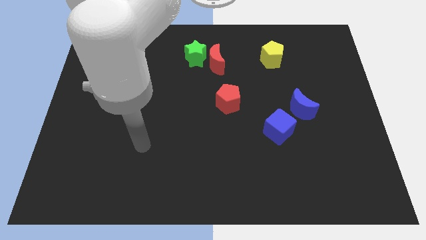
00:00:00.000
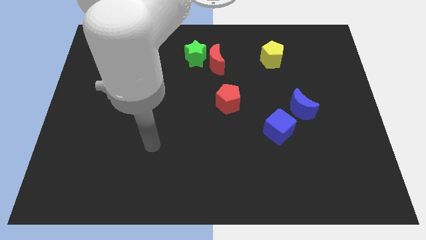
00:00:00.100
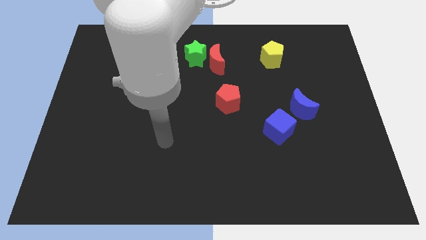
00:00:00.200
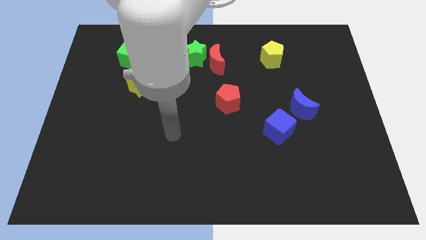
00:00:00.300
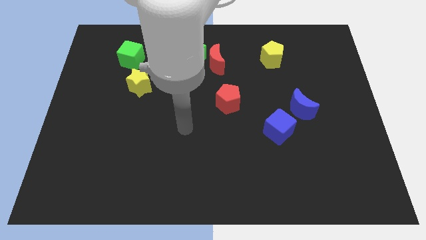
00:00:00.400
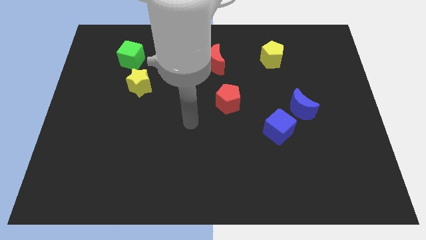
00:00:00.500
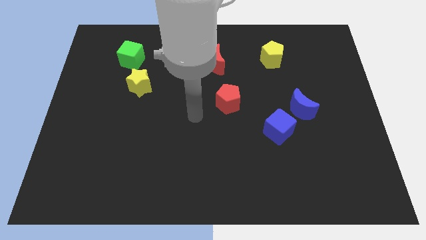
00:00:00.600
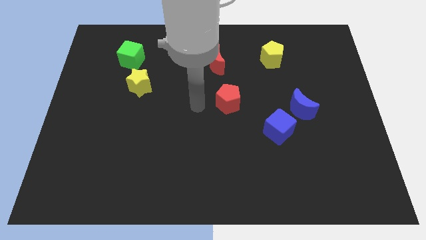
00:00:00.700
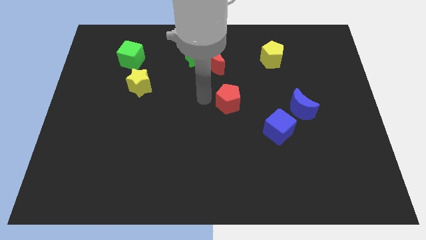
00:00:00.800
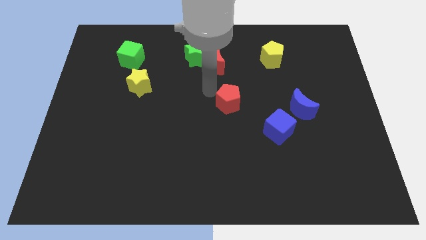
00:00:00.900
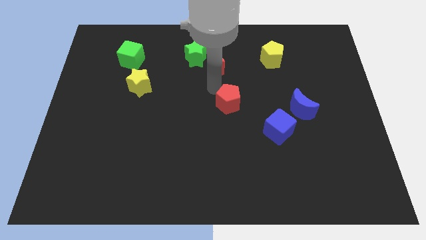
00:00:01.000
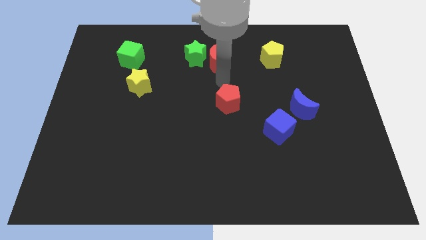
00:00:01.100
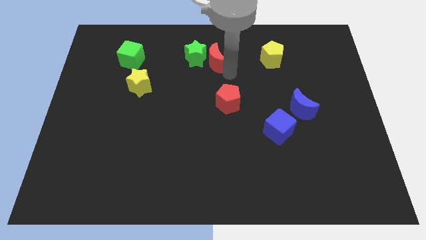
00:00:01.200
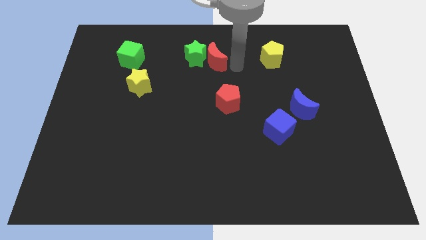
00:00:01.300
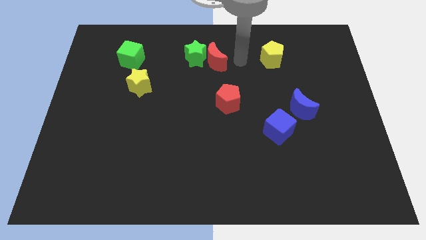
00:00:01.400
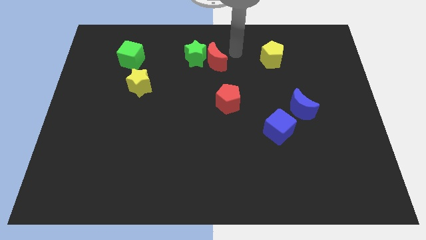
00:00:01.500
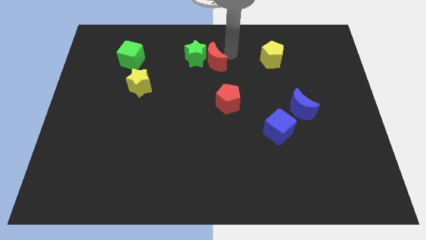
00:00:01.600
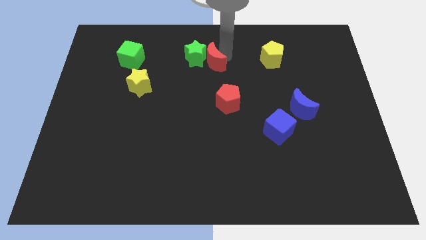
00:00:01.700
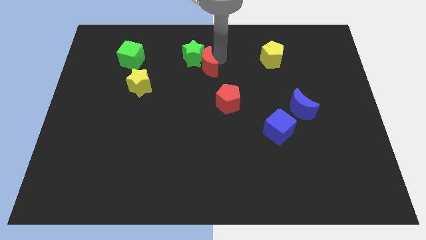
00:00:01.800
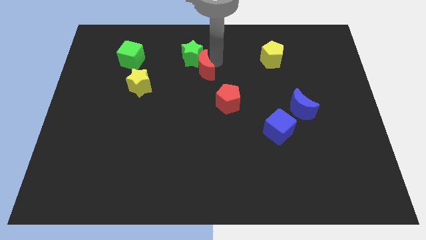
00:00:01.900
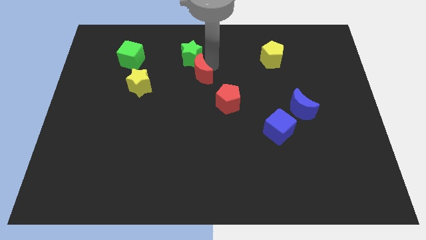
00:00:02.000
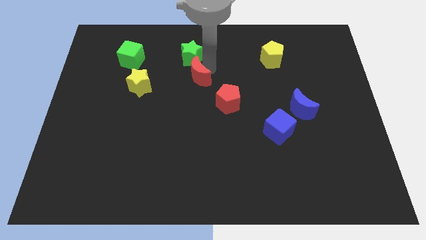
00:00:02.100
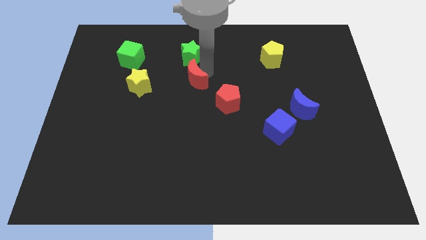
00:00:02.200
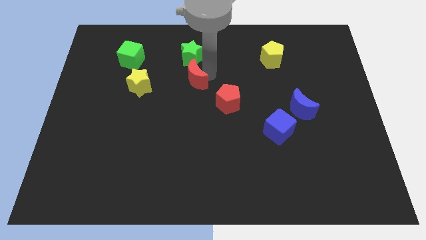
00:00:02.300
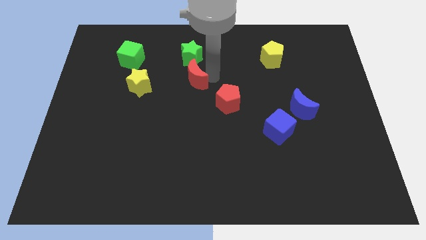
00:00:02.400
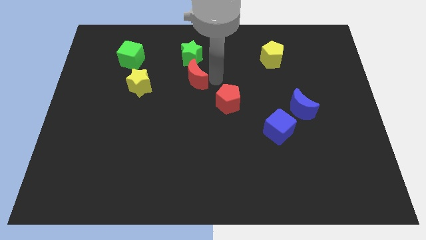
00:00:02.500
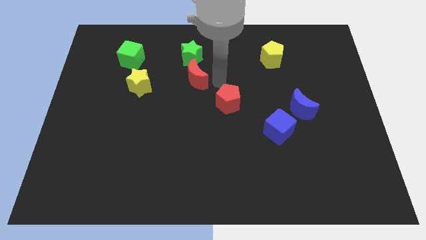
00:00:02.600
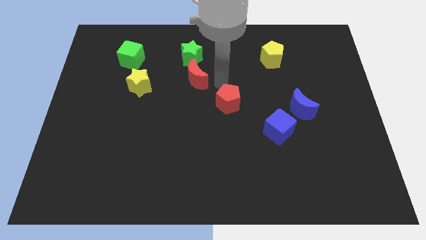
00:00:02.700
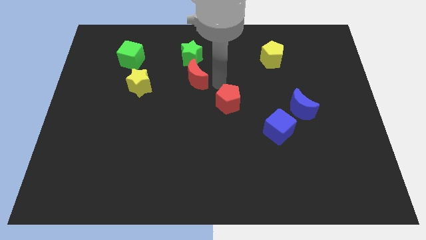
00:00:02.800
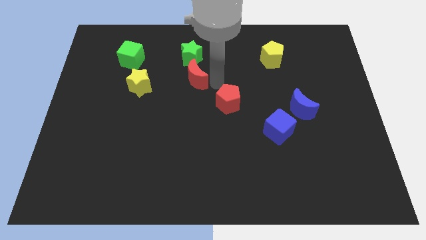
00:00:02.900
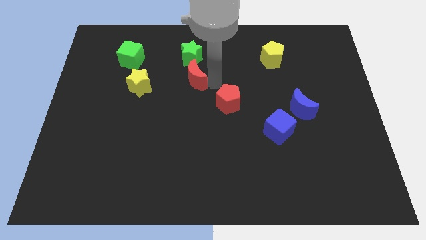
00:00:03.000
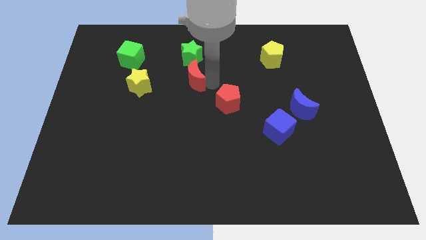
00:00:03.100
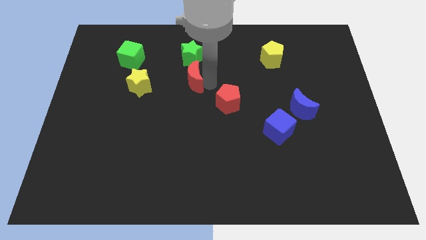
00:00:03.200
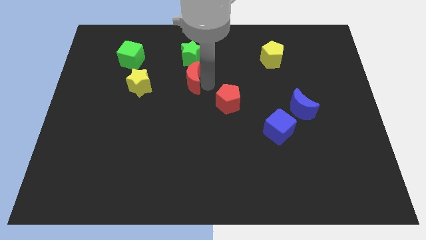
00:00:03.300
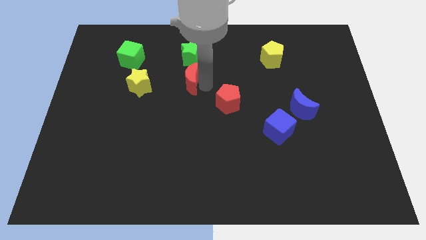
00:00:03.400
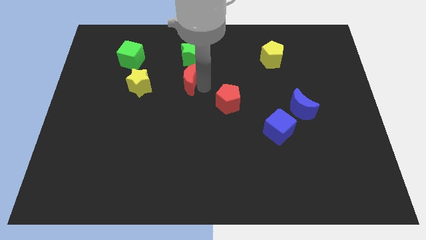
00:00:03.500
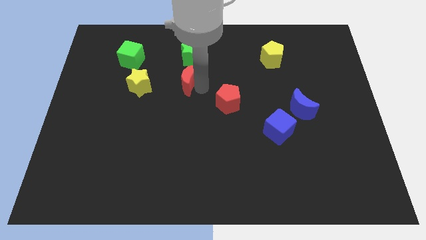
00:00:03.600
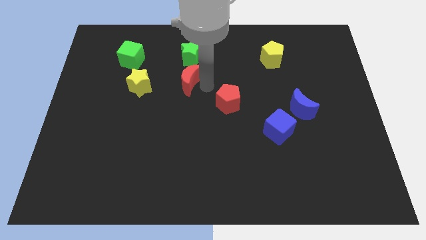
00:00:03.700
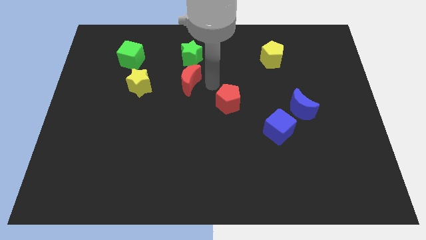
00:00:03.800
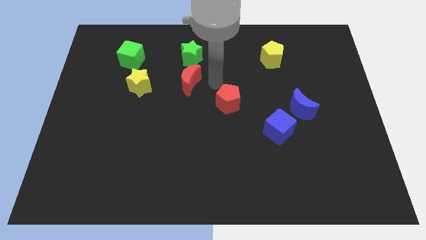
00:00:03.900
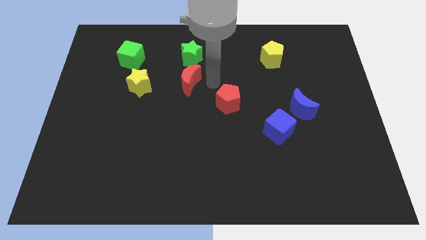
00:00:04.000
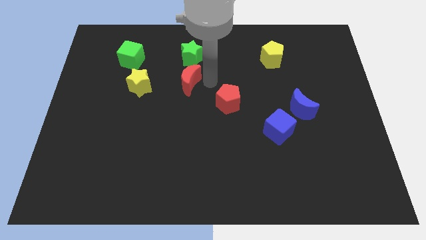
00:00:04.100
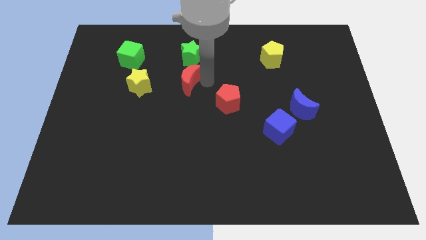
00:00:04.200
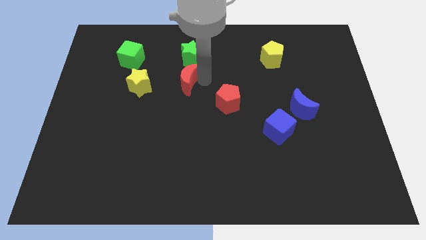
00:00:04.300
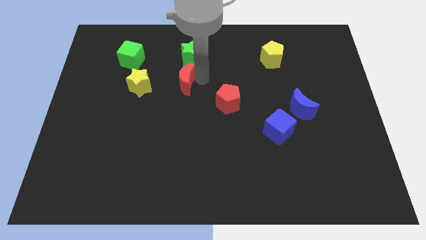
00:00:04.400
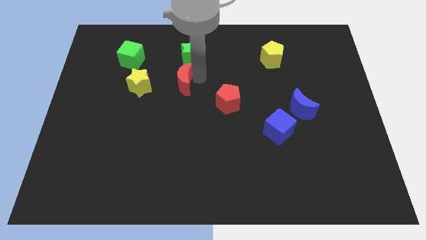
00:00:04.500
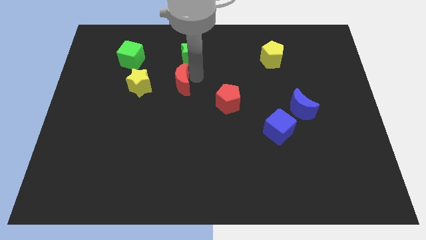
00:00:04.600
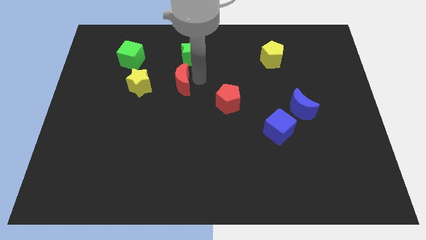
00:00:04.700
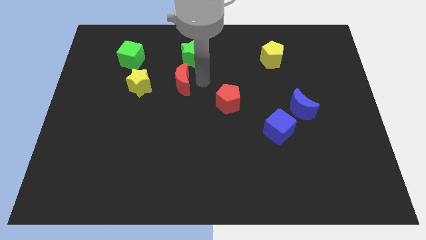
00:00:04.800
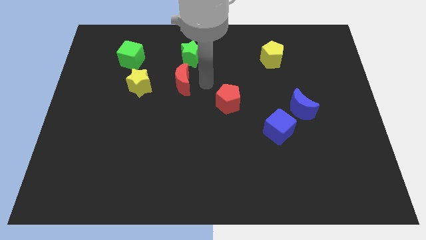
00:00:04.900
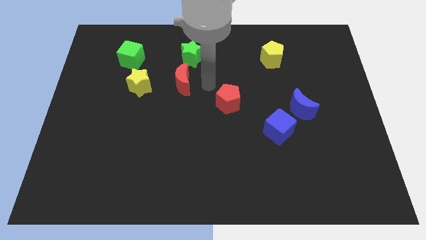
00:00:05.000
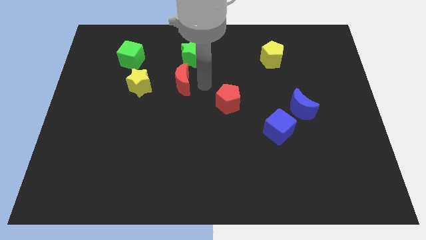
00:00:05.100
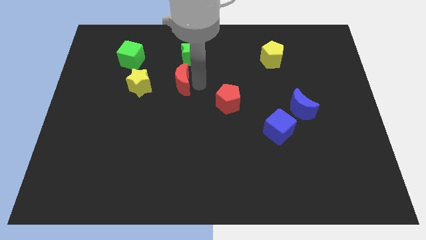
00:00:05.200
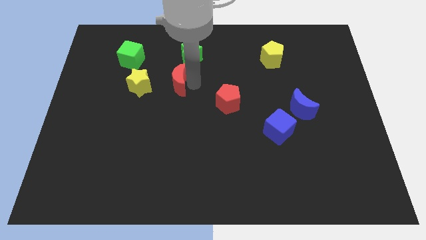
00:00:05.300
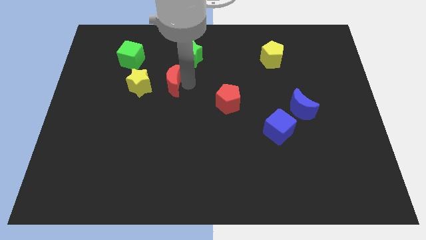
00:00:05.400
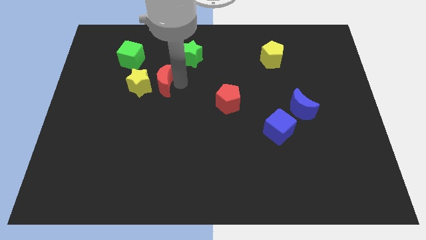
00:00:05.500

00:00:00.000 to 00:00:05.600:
put the red moon towards the yellow star

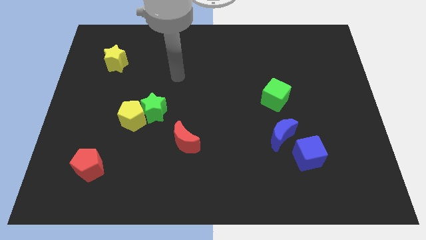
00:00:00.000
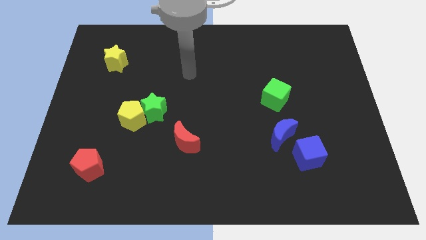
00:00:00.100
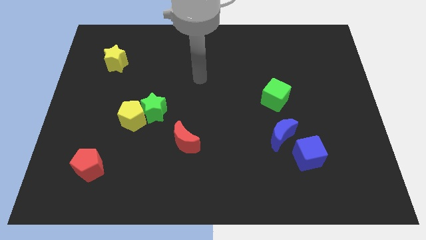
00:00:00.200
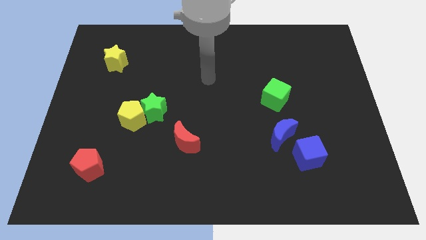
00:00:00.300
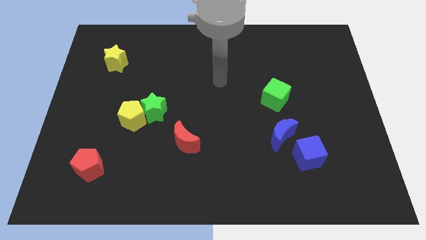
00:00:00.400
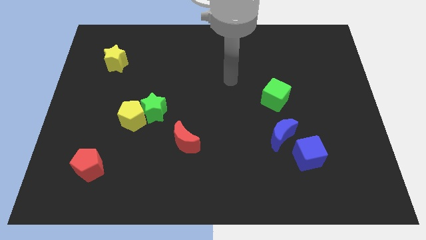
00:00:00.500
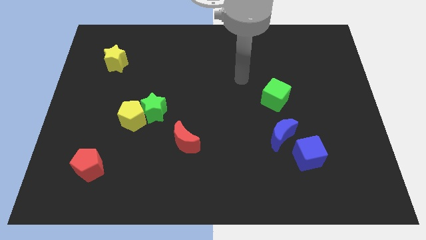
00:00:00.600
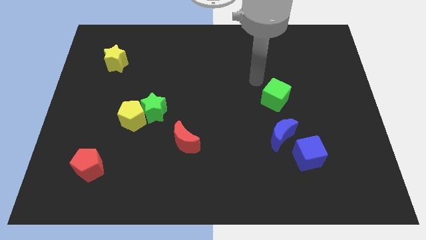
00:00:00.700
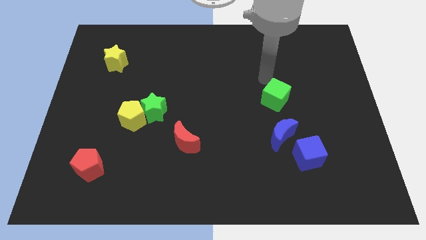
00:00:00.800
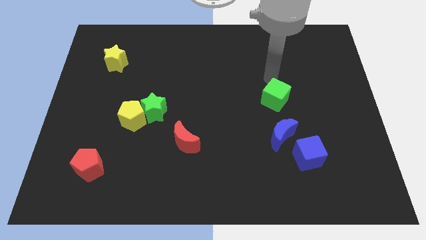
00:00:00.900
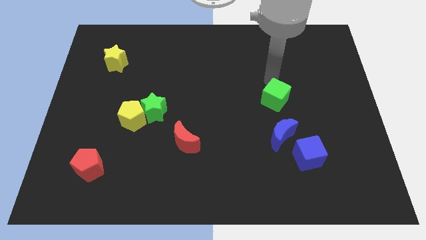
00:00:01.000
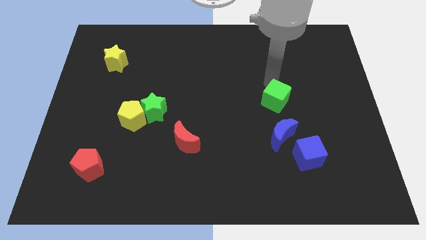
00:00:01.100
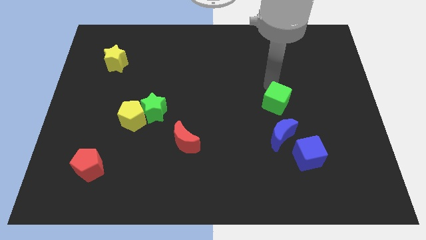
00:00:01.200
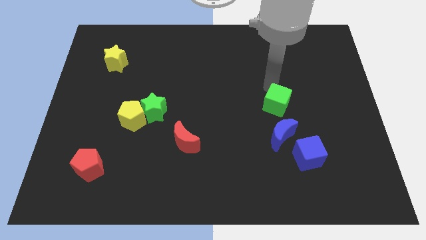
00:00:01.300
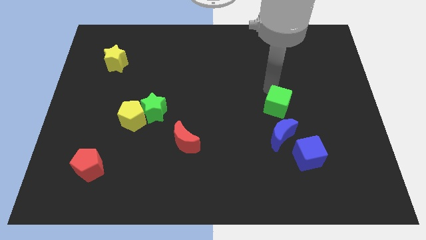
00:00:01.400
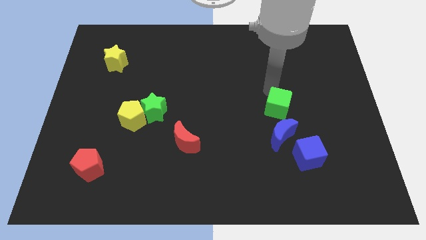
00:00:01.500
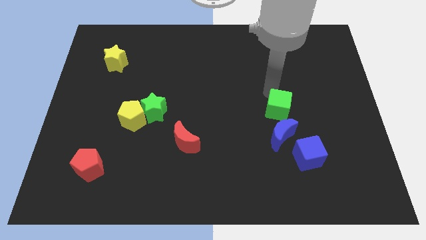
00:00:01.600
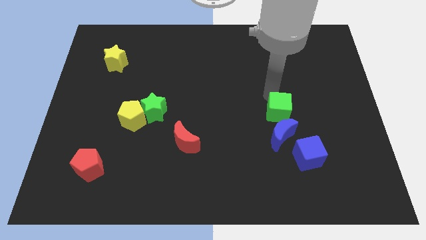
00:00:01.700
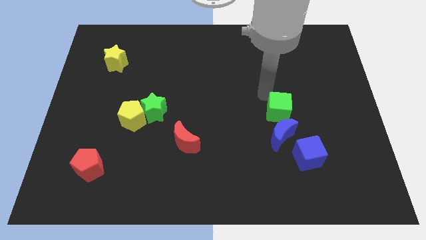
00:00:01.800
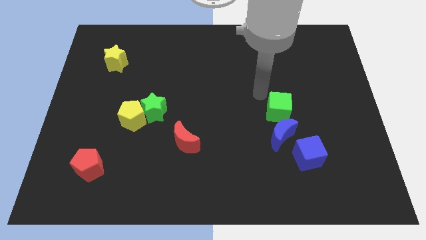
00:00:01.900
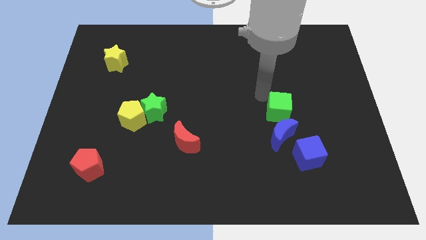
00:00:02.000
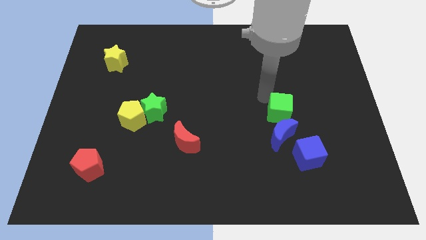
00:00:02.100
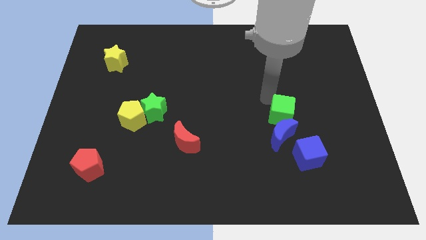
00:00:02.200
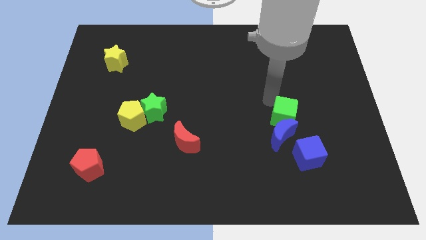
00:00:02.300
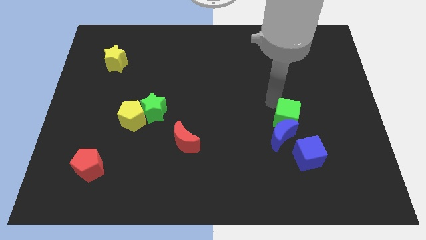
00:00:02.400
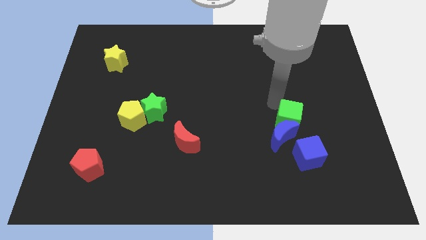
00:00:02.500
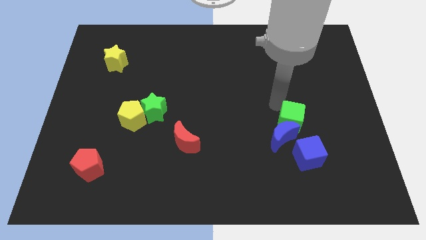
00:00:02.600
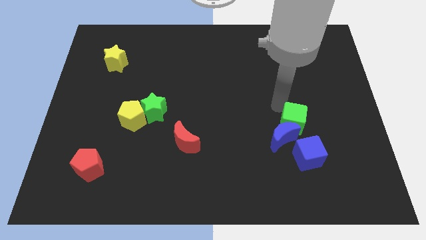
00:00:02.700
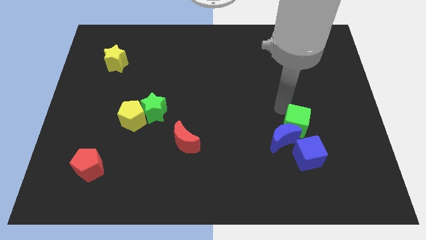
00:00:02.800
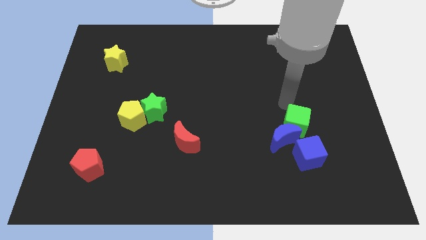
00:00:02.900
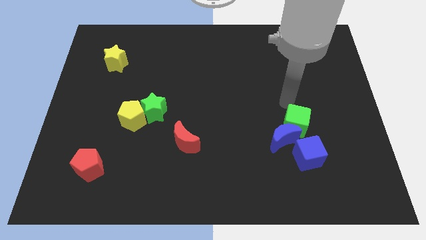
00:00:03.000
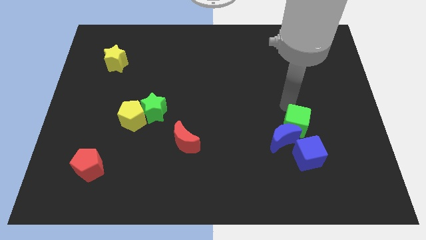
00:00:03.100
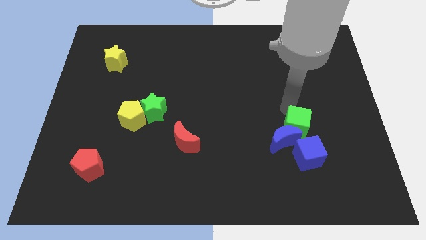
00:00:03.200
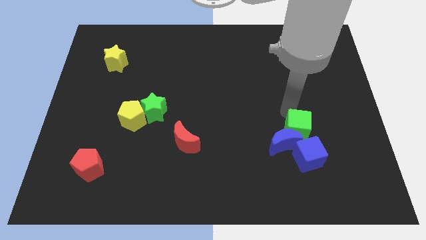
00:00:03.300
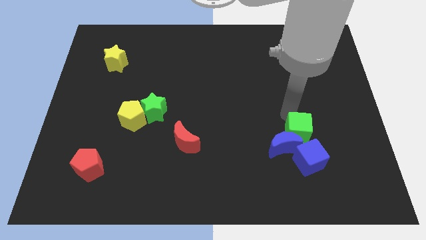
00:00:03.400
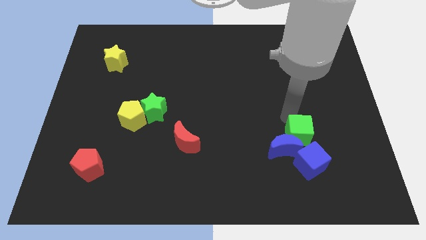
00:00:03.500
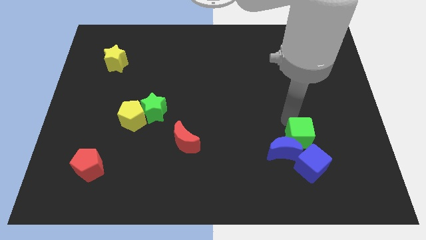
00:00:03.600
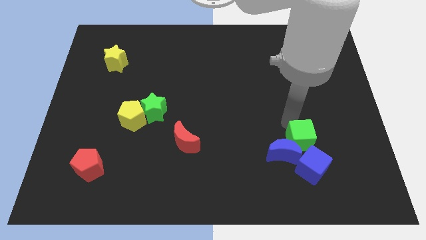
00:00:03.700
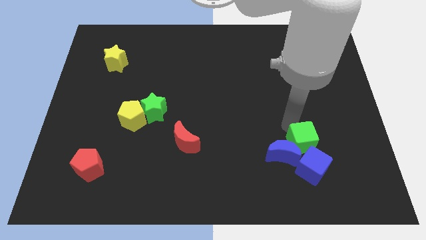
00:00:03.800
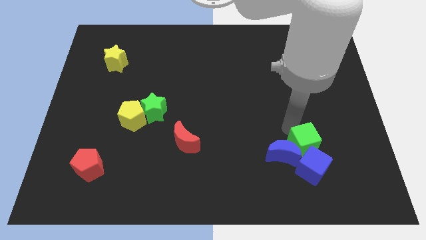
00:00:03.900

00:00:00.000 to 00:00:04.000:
move the green cube close to the blue cube
